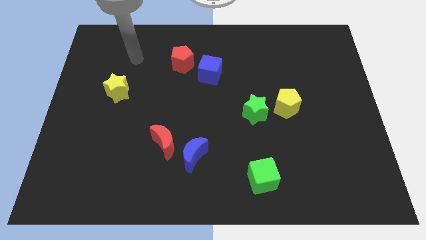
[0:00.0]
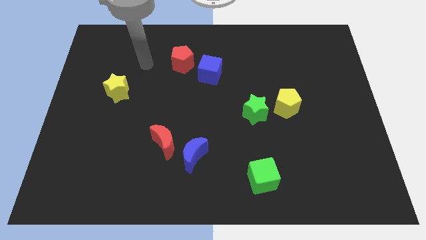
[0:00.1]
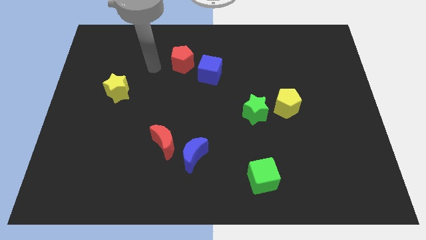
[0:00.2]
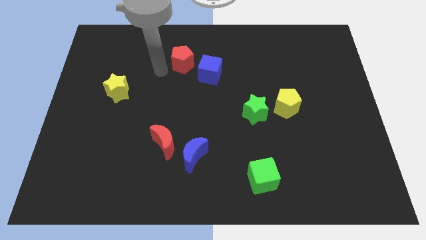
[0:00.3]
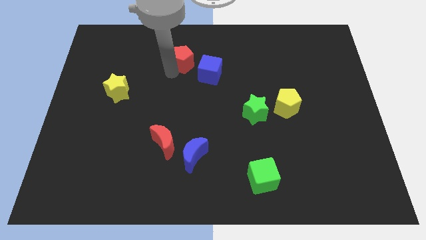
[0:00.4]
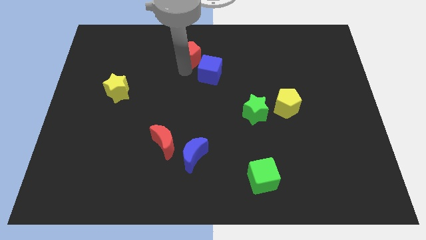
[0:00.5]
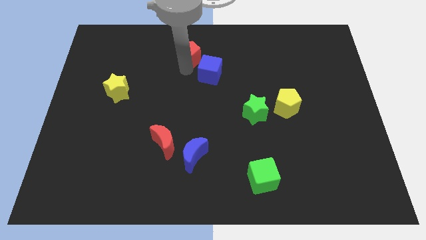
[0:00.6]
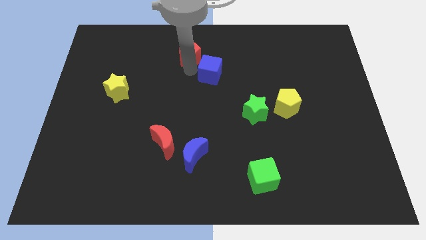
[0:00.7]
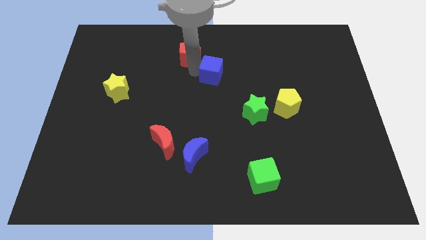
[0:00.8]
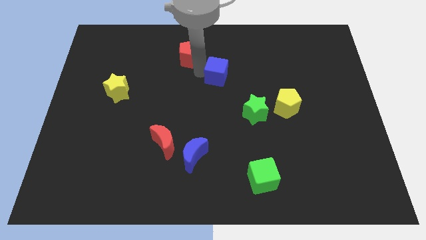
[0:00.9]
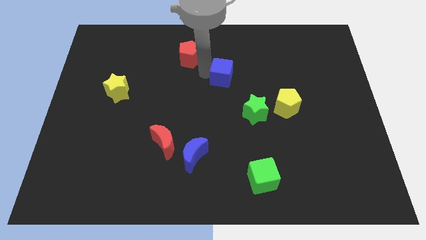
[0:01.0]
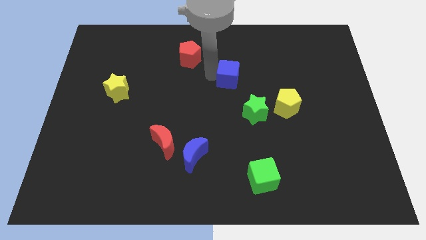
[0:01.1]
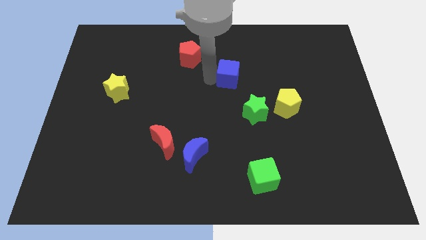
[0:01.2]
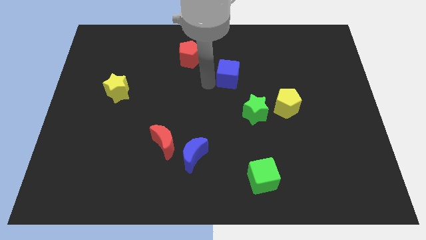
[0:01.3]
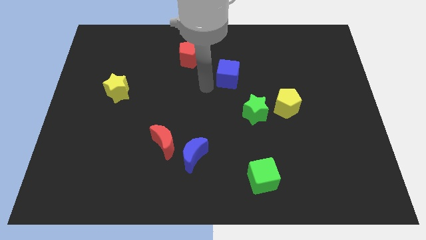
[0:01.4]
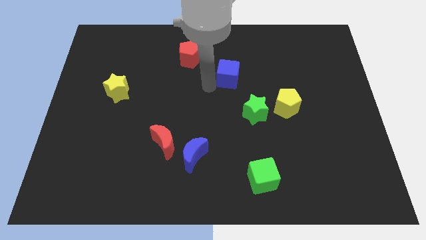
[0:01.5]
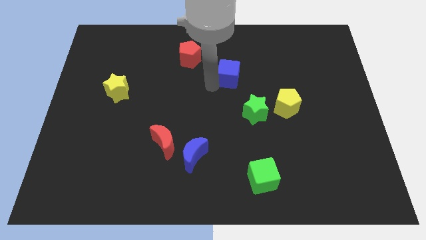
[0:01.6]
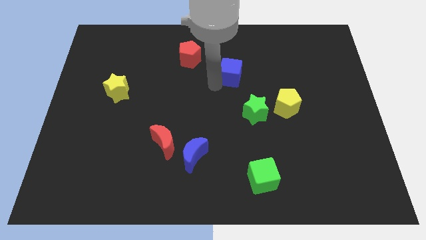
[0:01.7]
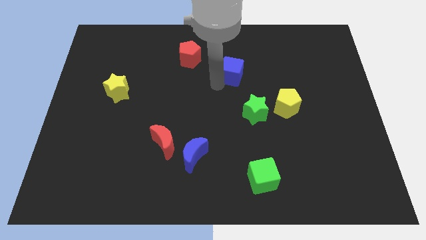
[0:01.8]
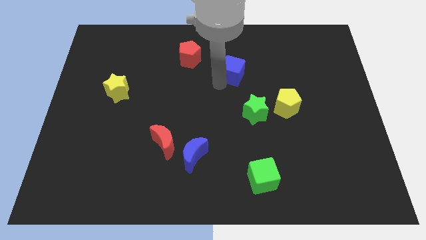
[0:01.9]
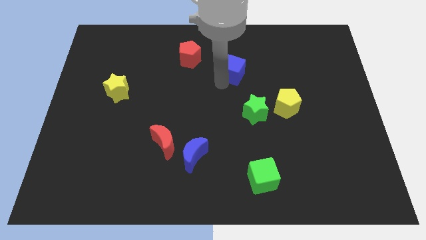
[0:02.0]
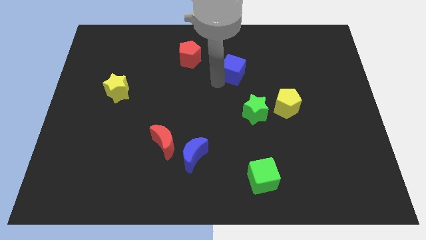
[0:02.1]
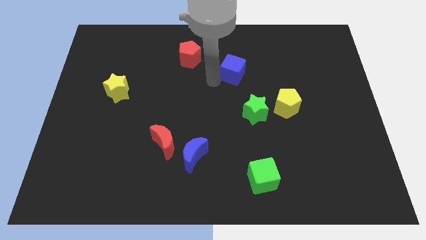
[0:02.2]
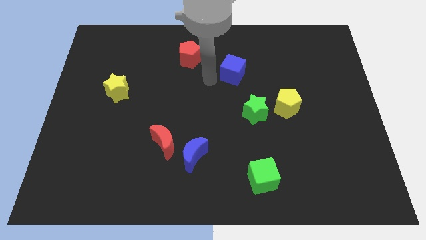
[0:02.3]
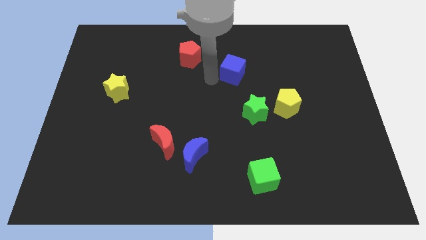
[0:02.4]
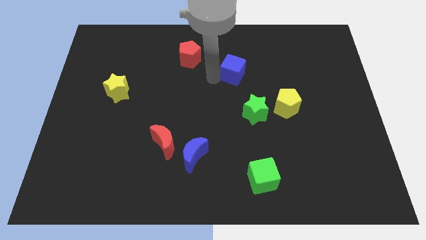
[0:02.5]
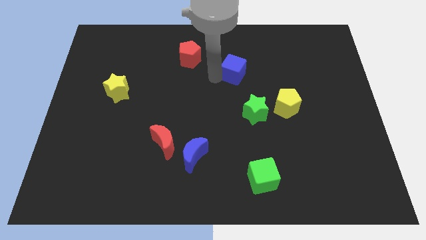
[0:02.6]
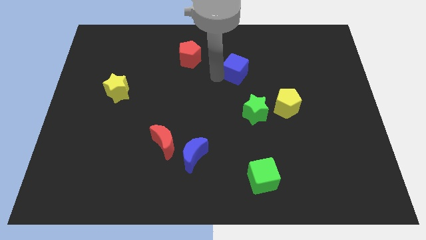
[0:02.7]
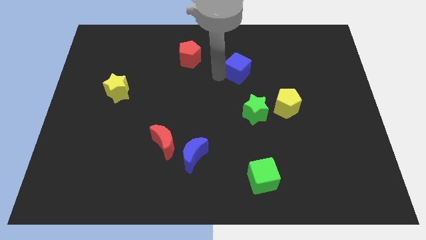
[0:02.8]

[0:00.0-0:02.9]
slide the blue cube right a little bit

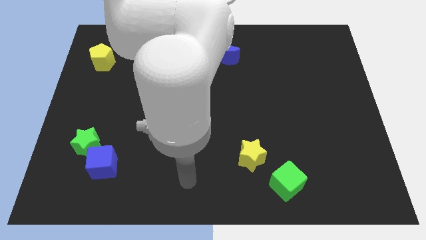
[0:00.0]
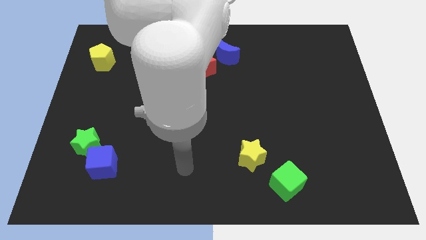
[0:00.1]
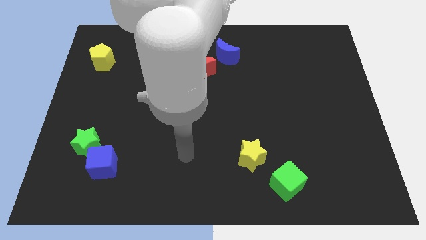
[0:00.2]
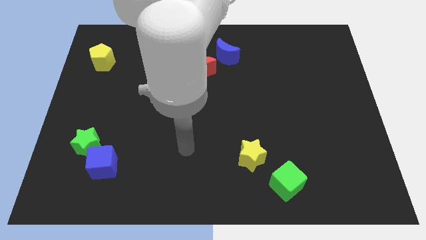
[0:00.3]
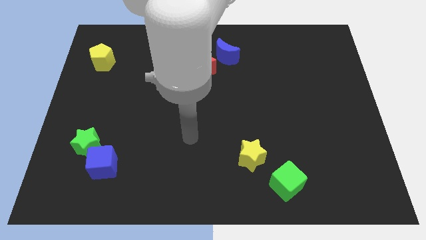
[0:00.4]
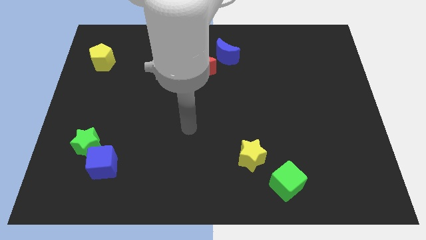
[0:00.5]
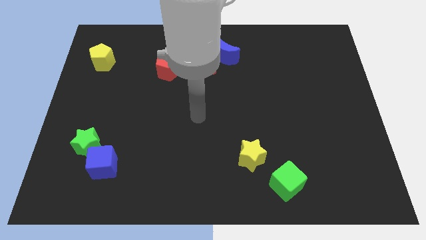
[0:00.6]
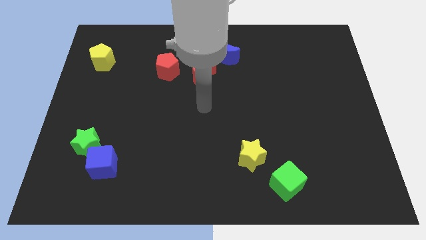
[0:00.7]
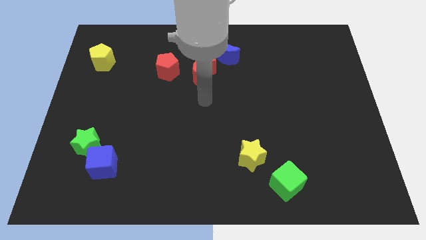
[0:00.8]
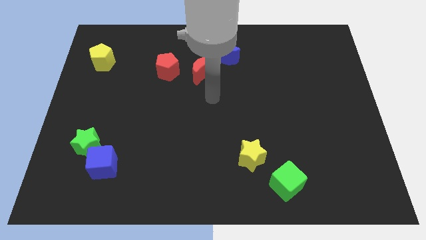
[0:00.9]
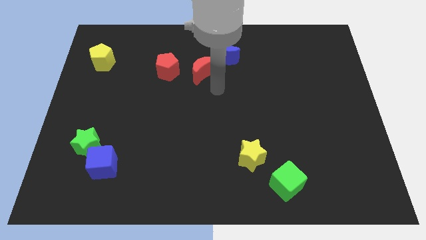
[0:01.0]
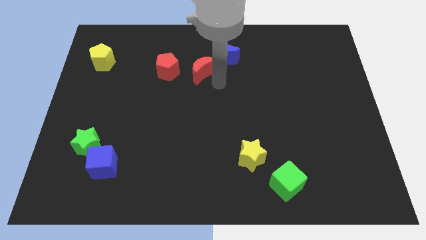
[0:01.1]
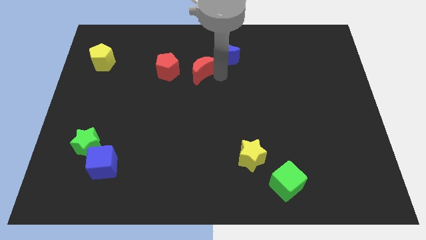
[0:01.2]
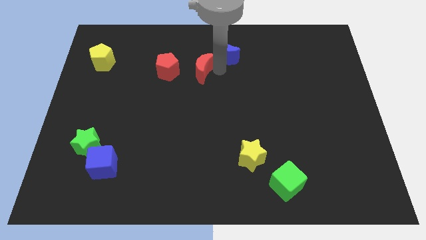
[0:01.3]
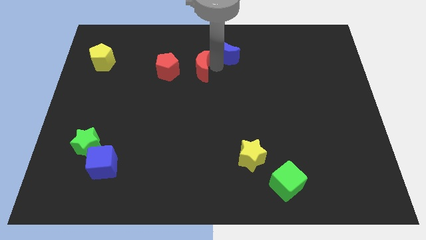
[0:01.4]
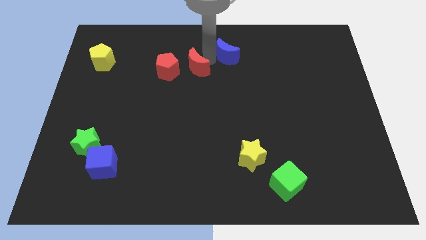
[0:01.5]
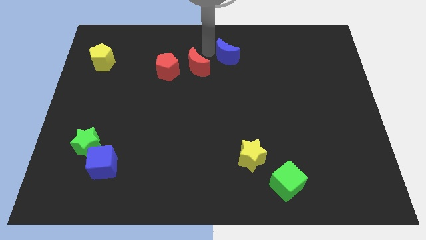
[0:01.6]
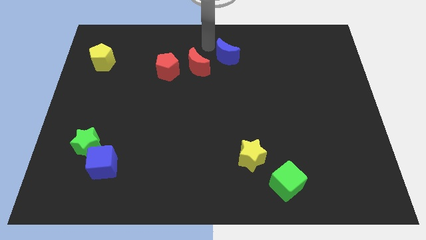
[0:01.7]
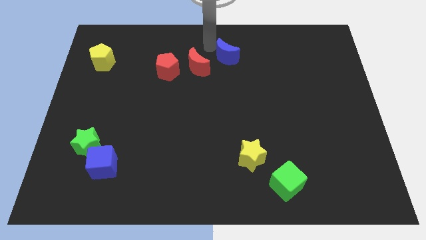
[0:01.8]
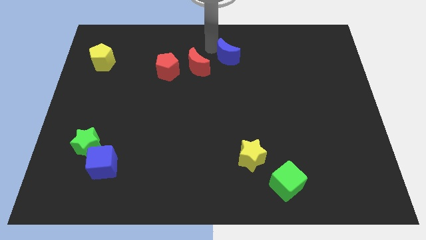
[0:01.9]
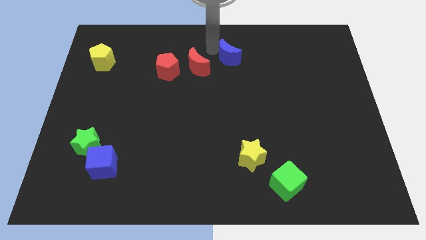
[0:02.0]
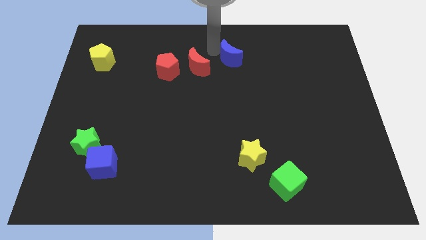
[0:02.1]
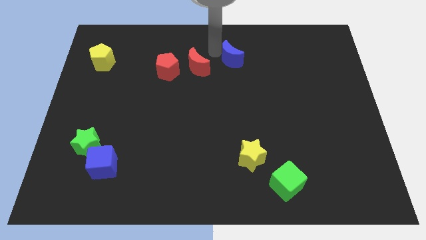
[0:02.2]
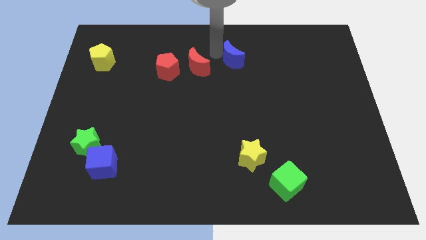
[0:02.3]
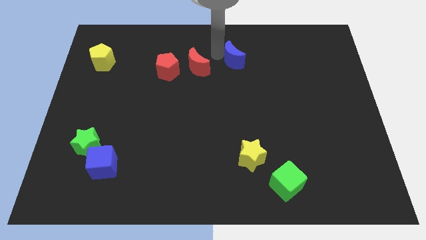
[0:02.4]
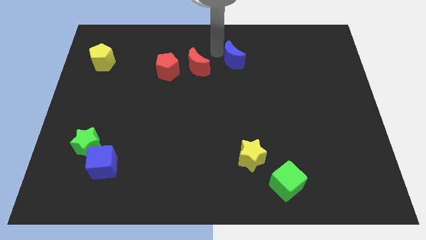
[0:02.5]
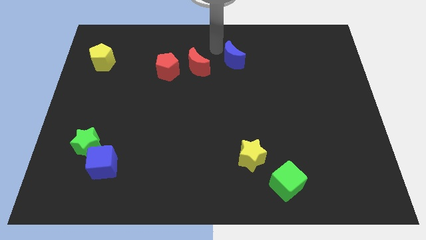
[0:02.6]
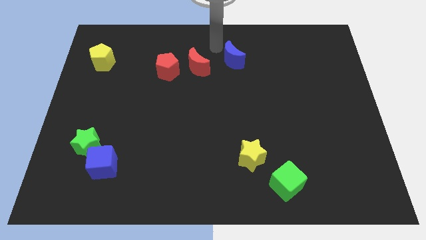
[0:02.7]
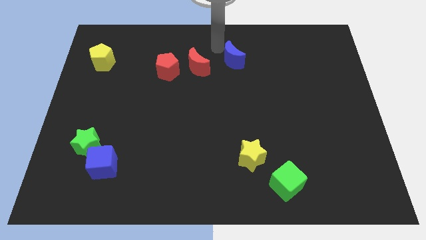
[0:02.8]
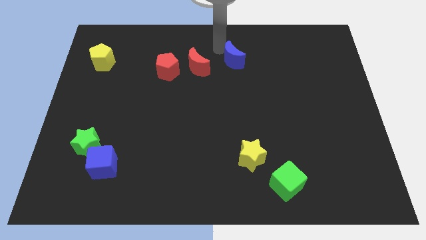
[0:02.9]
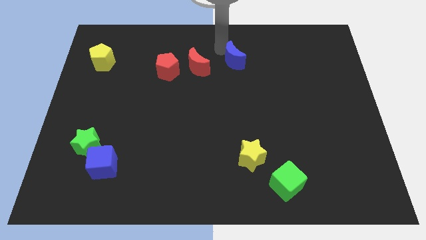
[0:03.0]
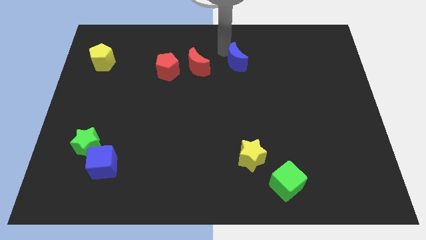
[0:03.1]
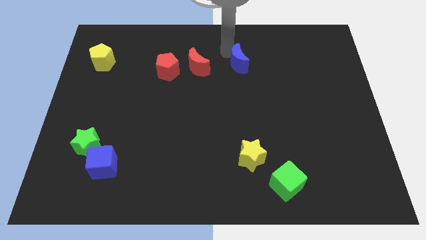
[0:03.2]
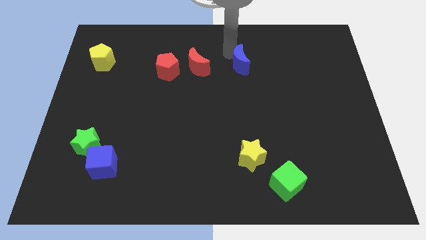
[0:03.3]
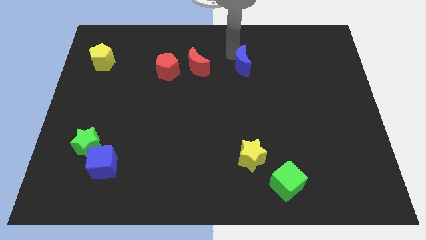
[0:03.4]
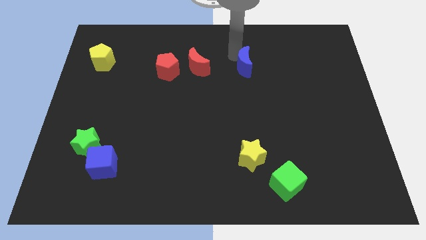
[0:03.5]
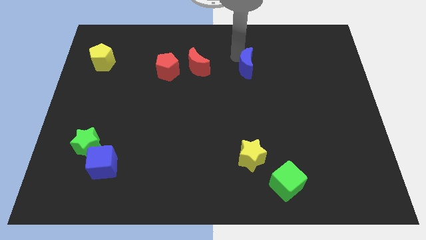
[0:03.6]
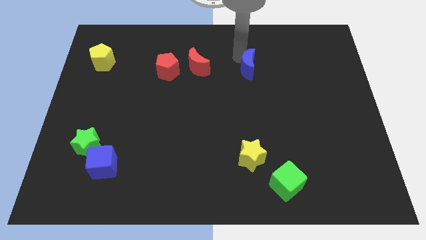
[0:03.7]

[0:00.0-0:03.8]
slightly push the blue moon downwards and then right

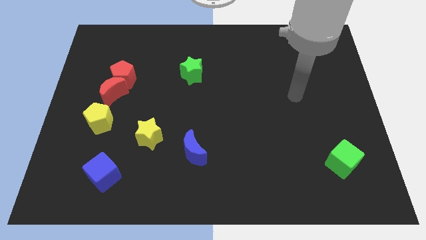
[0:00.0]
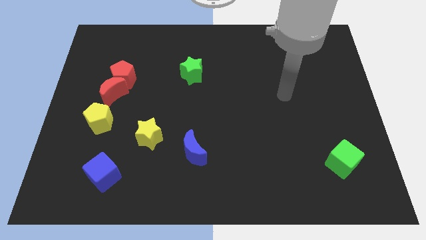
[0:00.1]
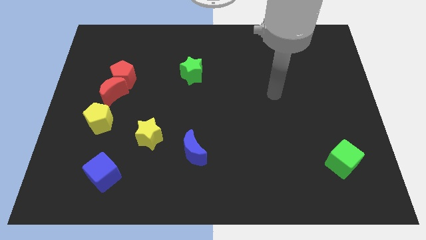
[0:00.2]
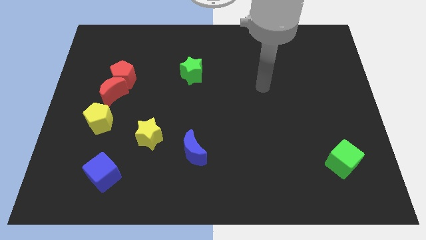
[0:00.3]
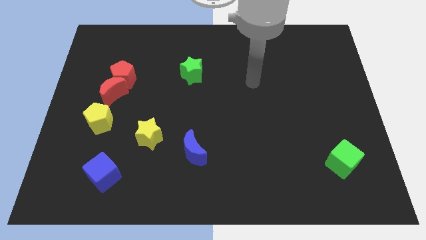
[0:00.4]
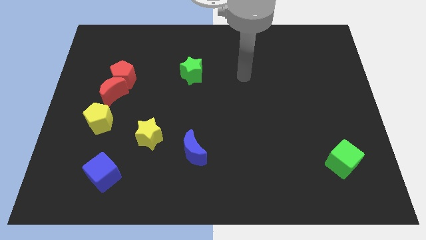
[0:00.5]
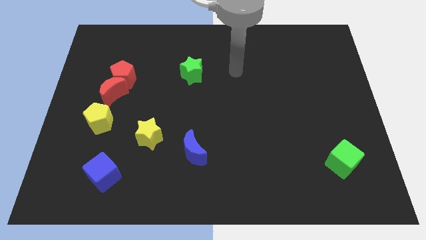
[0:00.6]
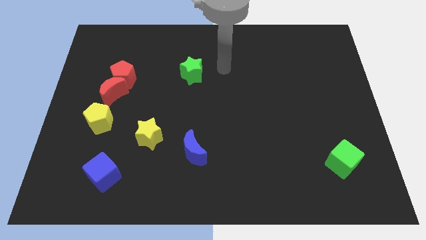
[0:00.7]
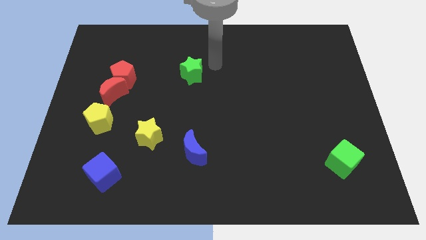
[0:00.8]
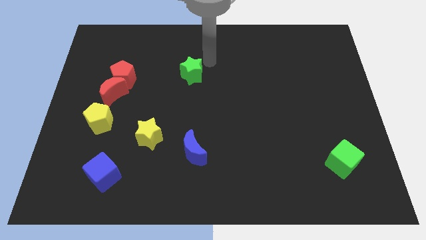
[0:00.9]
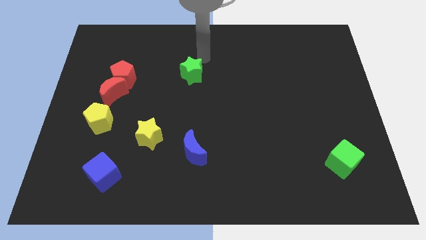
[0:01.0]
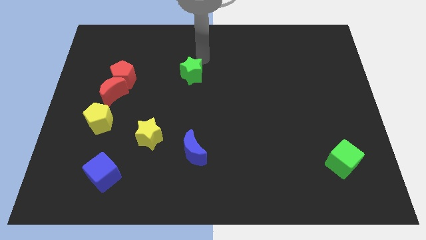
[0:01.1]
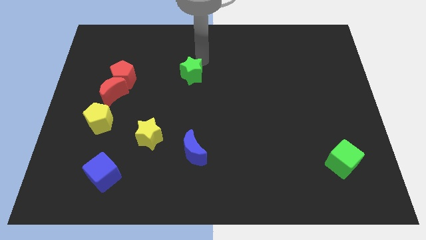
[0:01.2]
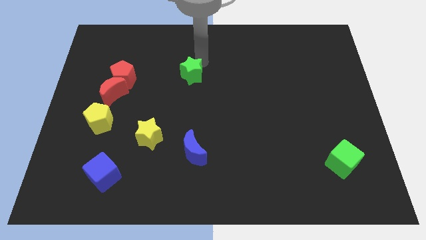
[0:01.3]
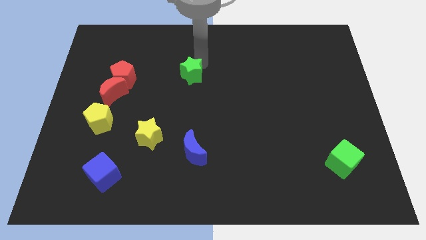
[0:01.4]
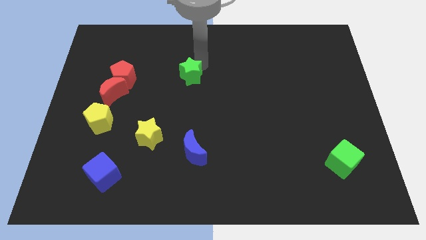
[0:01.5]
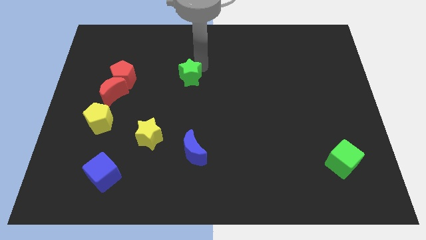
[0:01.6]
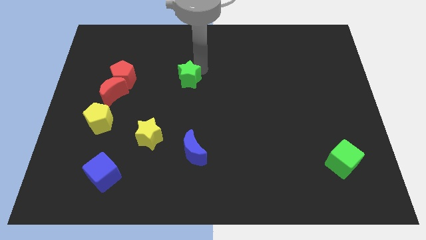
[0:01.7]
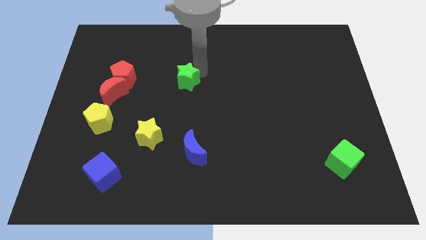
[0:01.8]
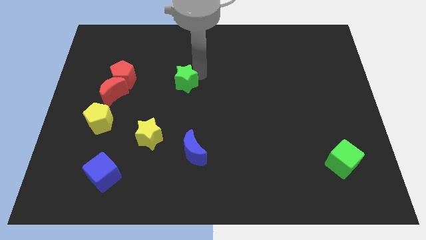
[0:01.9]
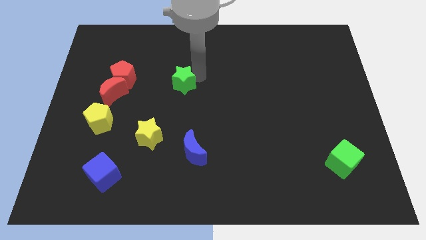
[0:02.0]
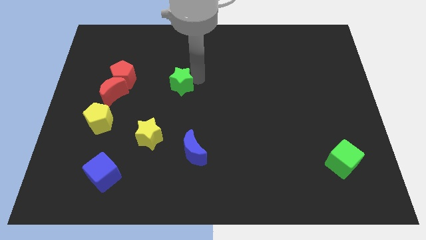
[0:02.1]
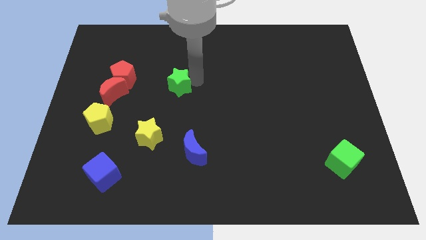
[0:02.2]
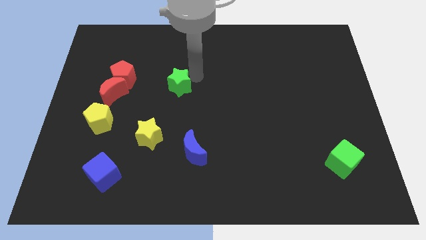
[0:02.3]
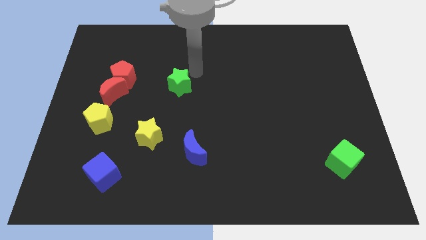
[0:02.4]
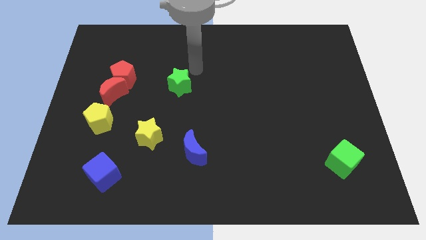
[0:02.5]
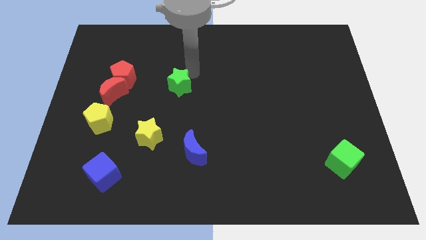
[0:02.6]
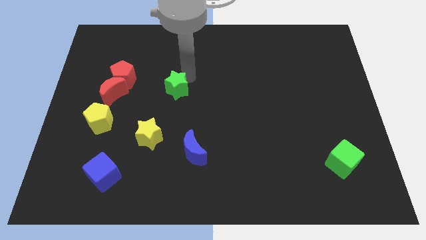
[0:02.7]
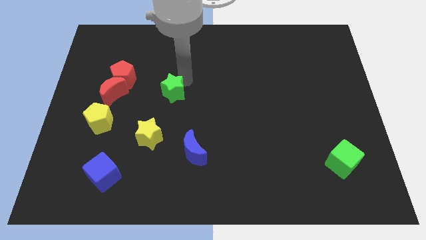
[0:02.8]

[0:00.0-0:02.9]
move the green star slightly diagonally down and to the left
